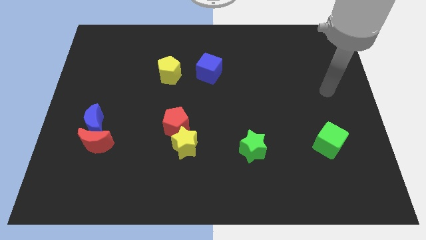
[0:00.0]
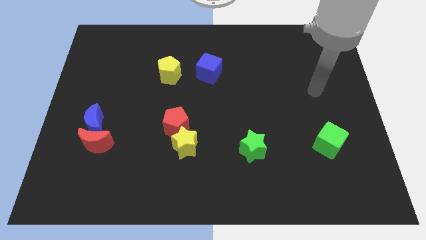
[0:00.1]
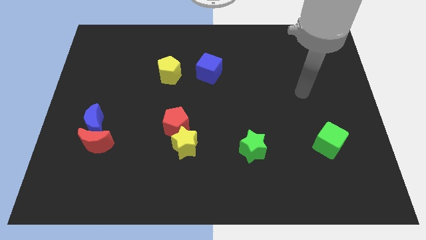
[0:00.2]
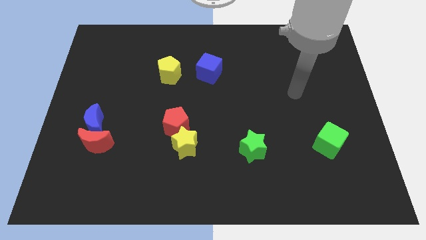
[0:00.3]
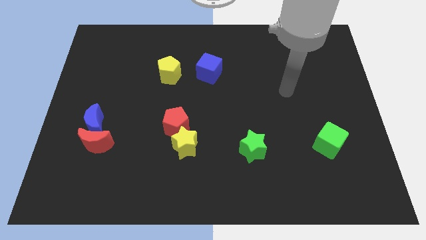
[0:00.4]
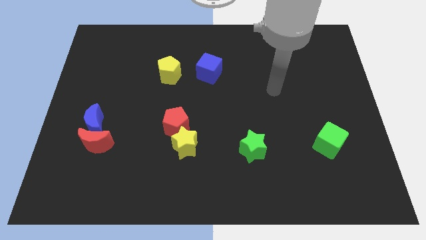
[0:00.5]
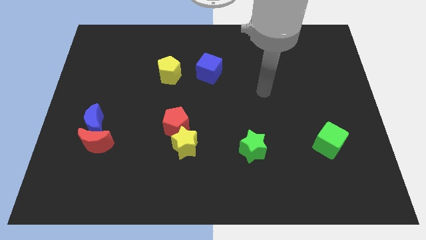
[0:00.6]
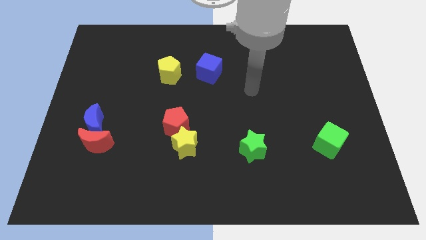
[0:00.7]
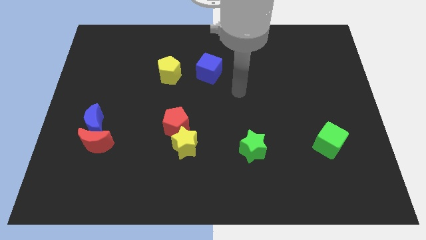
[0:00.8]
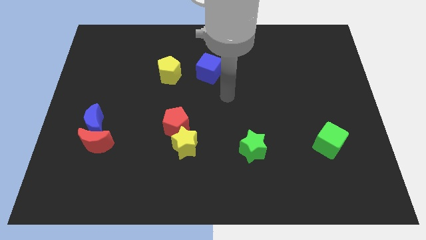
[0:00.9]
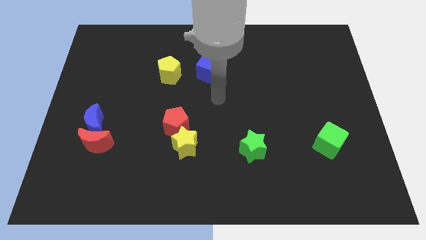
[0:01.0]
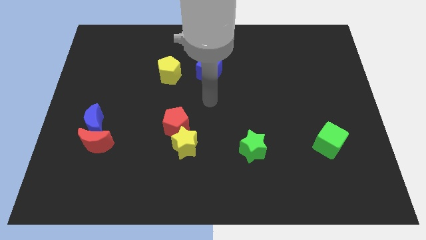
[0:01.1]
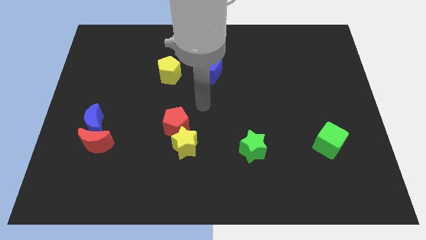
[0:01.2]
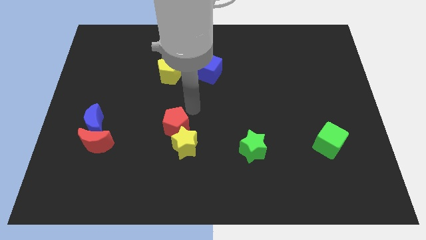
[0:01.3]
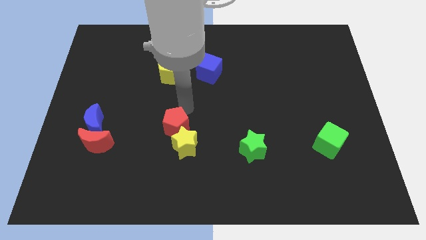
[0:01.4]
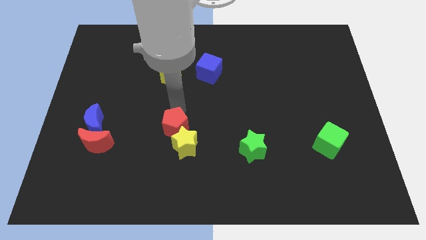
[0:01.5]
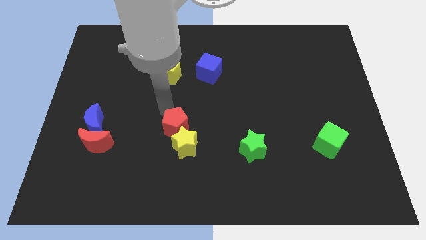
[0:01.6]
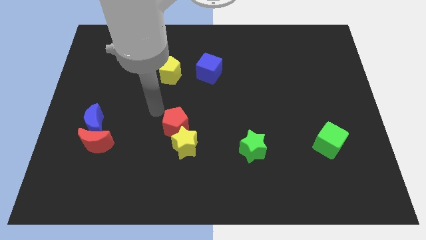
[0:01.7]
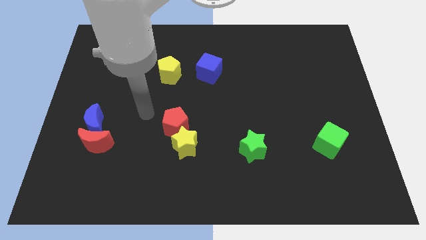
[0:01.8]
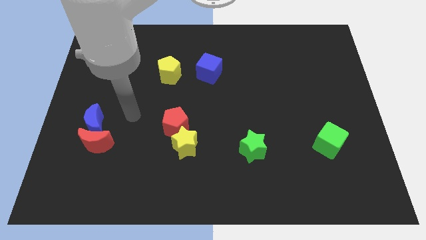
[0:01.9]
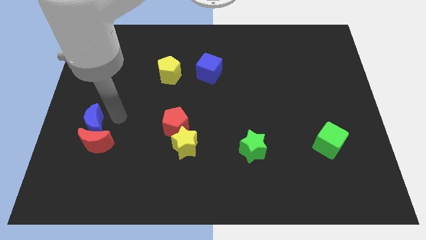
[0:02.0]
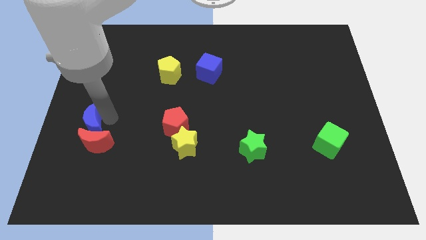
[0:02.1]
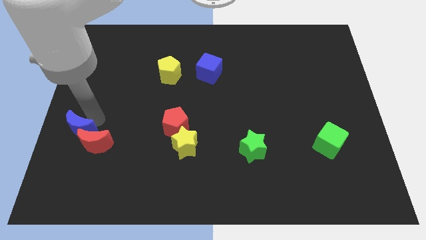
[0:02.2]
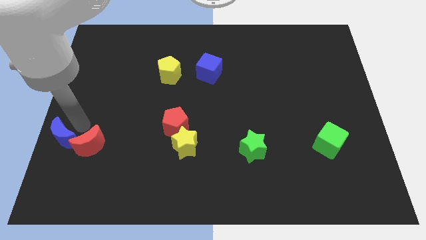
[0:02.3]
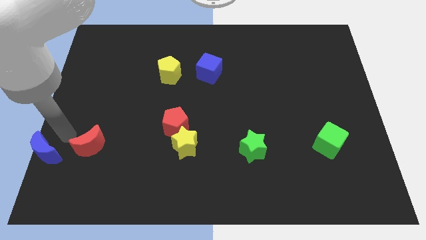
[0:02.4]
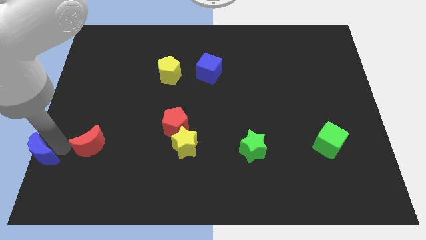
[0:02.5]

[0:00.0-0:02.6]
separate the red moon from the blue moon

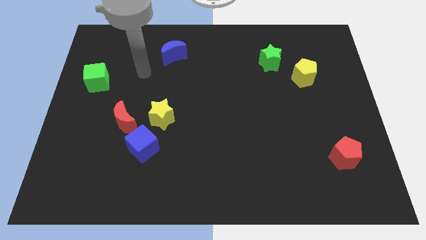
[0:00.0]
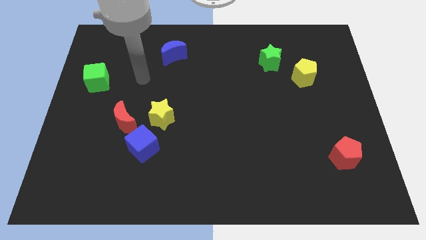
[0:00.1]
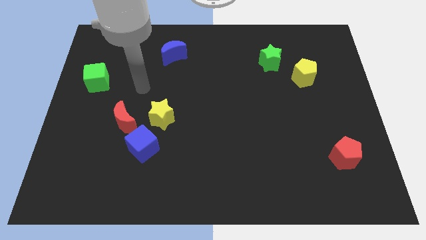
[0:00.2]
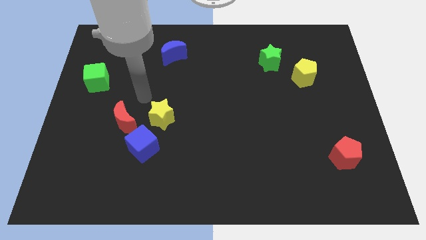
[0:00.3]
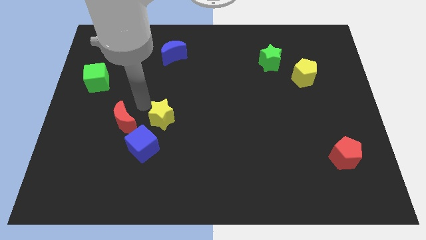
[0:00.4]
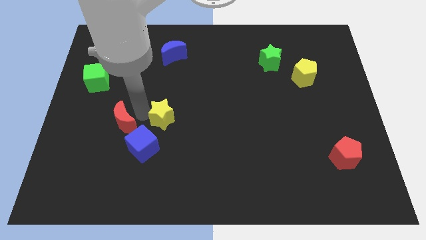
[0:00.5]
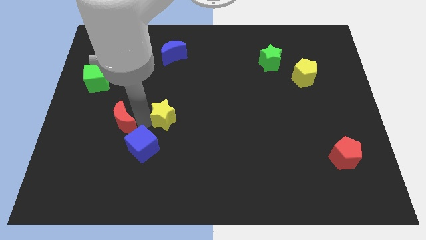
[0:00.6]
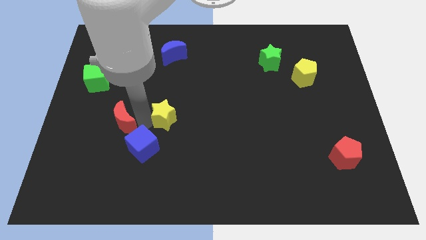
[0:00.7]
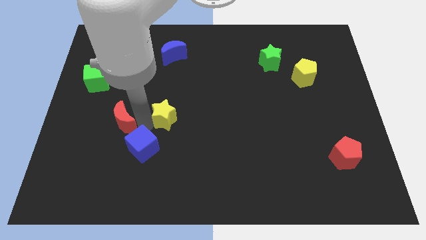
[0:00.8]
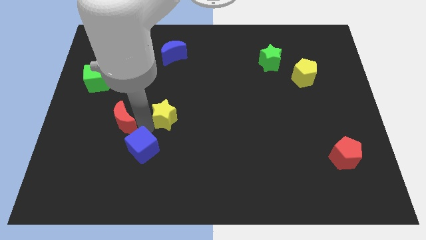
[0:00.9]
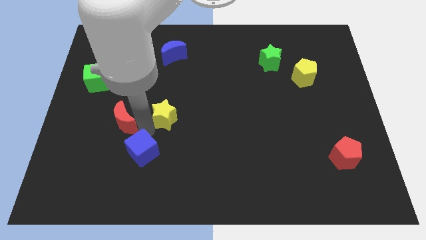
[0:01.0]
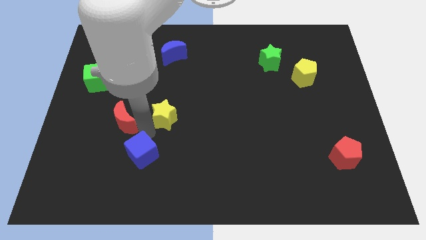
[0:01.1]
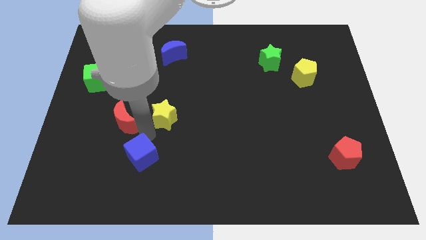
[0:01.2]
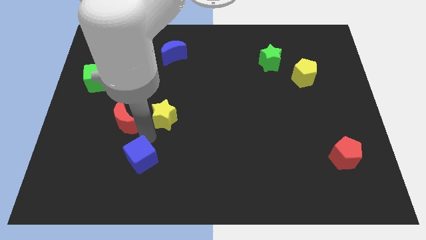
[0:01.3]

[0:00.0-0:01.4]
separate the blue cube from the red moon and yellow star

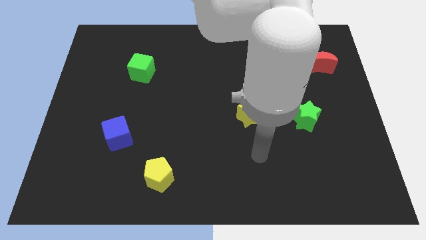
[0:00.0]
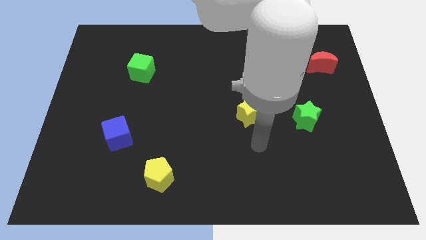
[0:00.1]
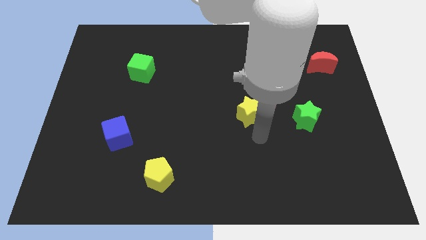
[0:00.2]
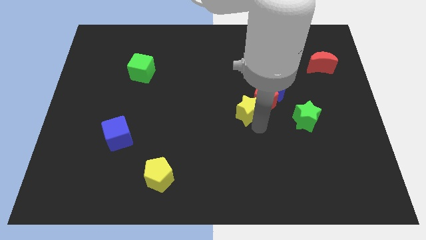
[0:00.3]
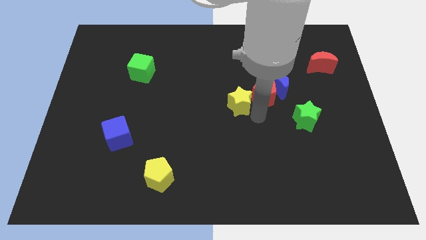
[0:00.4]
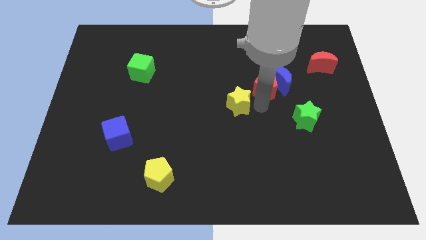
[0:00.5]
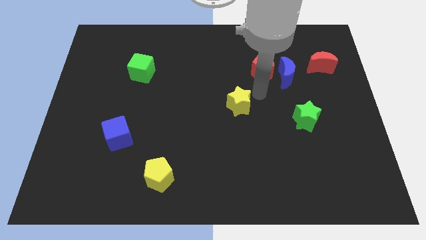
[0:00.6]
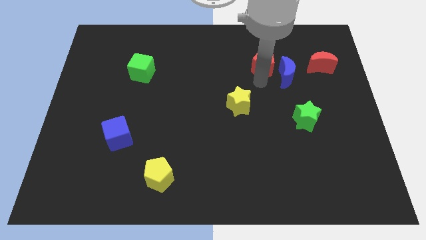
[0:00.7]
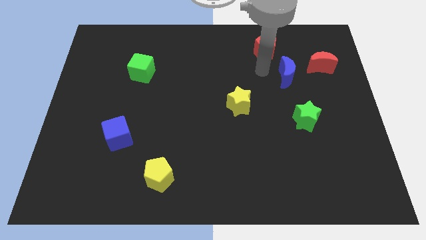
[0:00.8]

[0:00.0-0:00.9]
move the blue moon away from the red pentagon

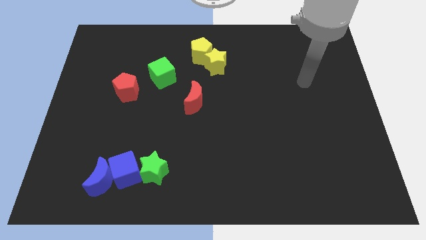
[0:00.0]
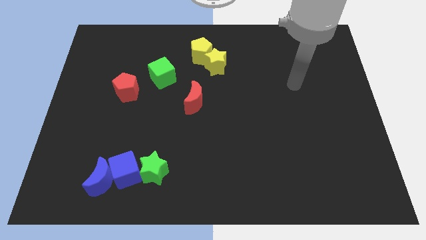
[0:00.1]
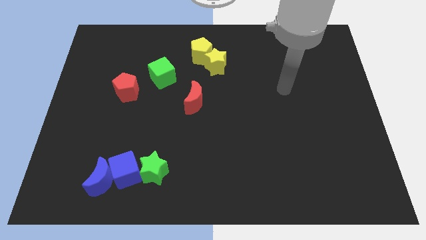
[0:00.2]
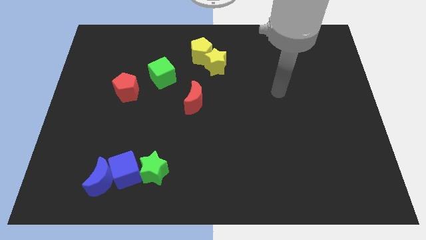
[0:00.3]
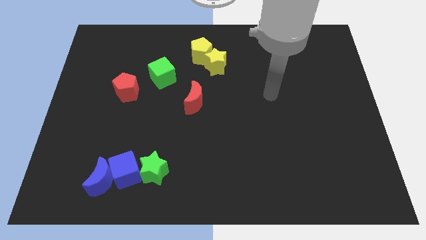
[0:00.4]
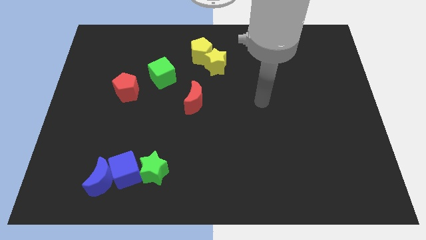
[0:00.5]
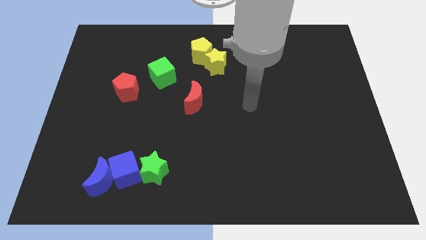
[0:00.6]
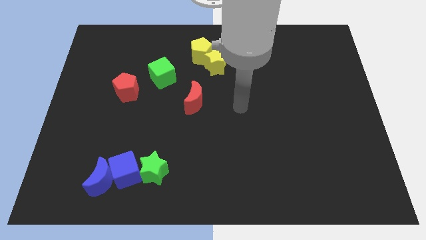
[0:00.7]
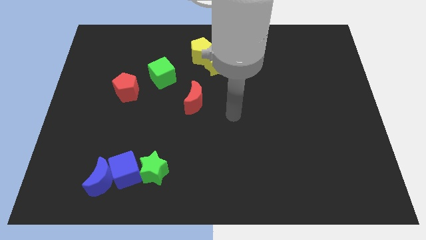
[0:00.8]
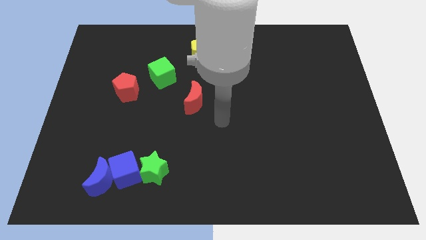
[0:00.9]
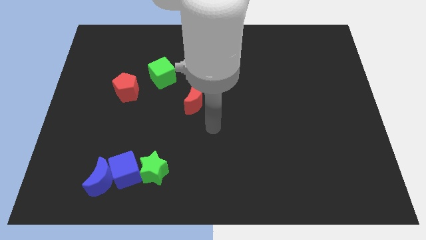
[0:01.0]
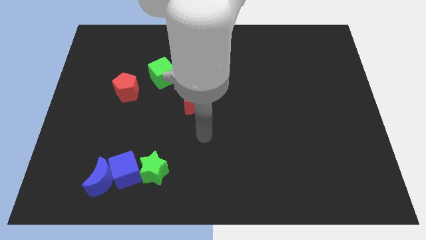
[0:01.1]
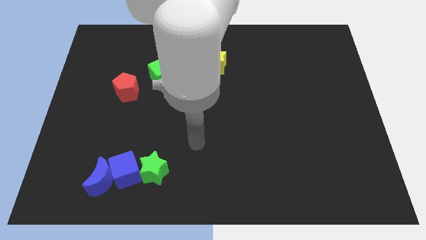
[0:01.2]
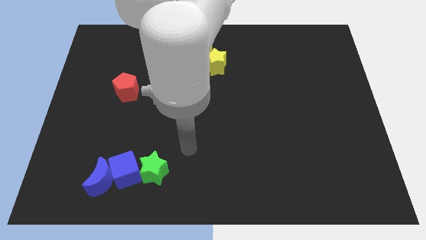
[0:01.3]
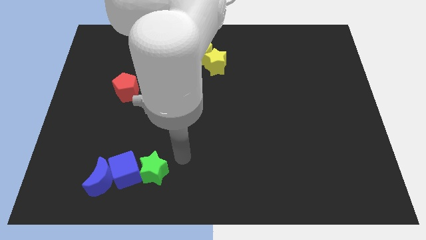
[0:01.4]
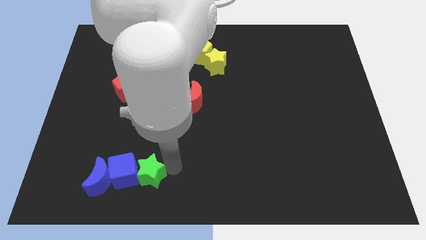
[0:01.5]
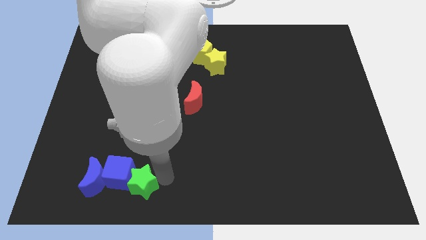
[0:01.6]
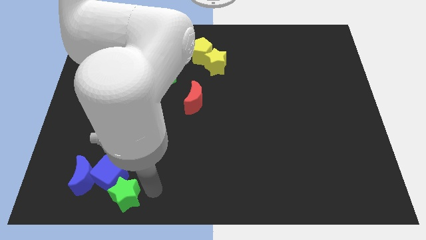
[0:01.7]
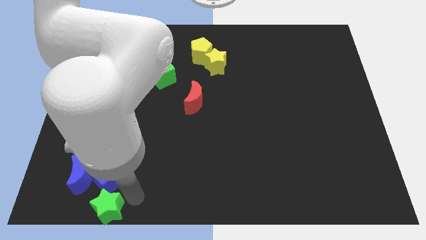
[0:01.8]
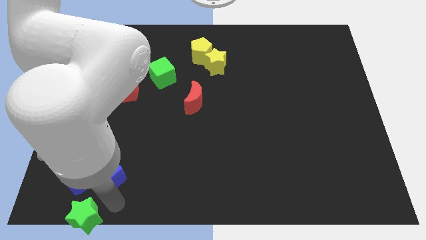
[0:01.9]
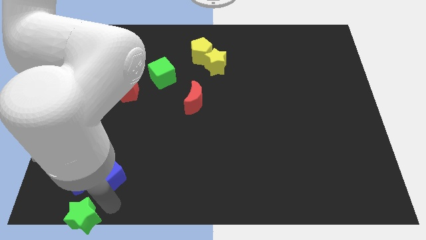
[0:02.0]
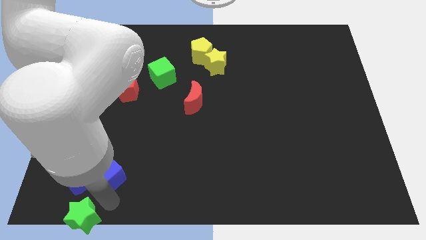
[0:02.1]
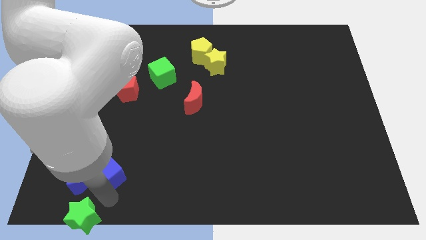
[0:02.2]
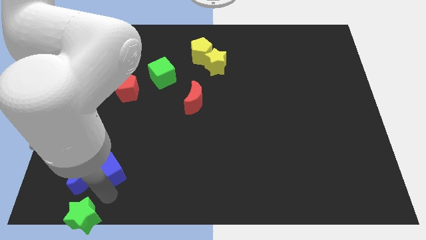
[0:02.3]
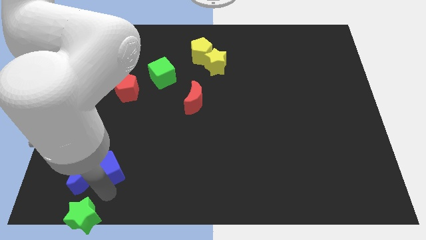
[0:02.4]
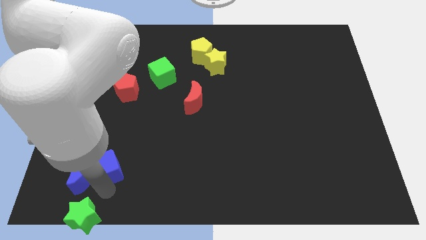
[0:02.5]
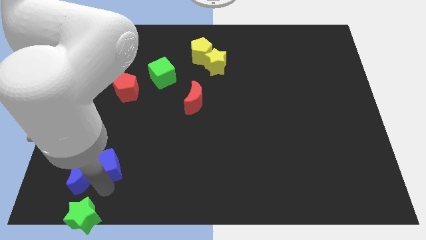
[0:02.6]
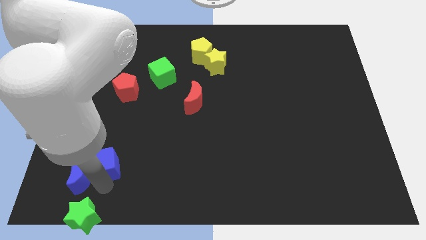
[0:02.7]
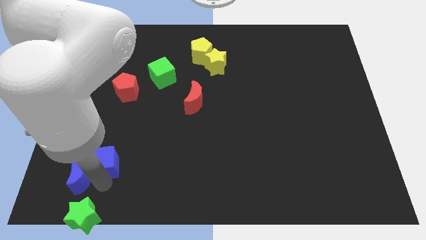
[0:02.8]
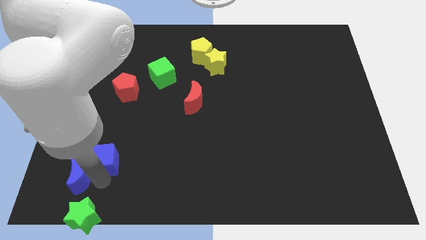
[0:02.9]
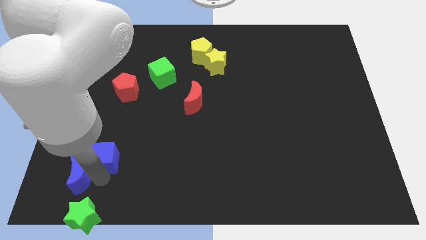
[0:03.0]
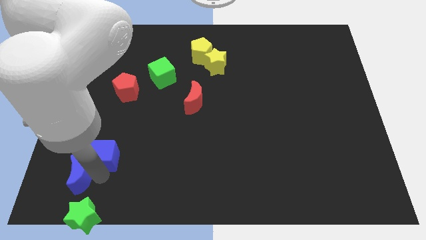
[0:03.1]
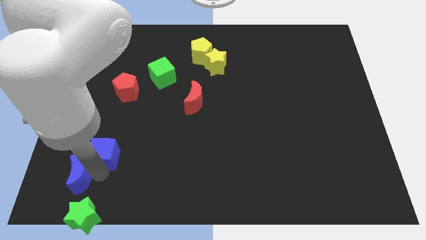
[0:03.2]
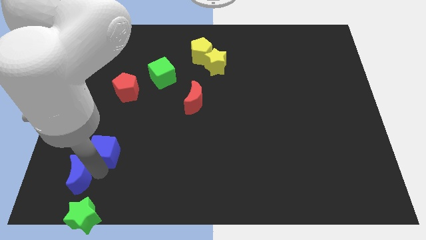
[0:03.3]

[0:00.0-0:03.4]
move the blue cube away from the blue moon and green star

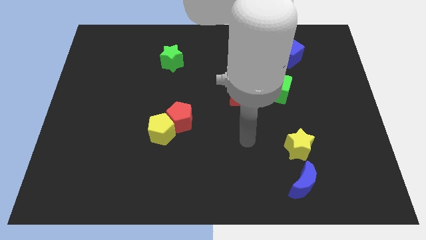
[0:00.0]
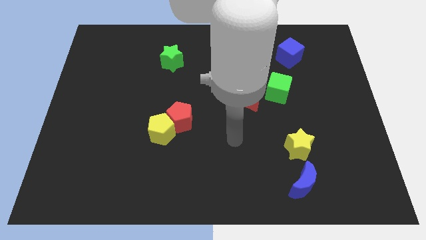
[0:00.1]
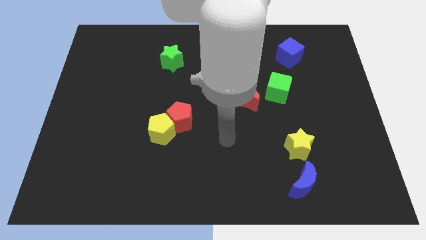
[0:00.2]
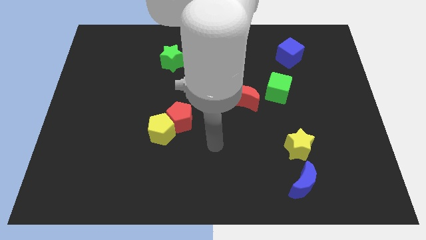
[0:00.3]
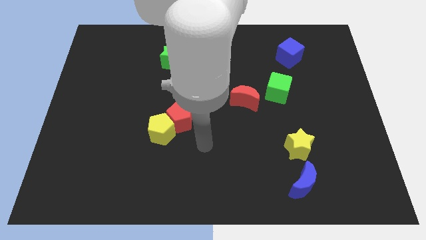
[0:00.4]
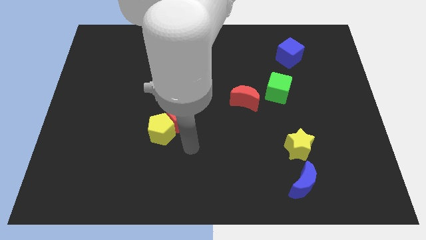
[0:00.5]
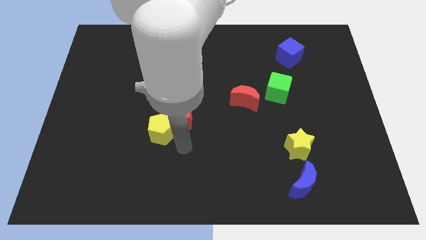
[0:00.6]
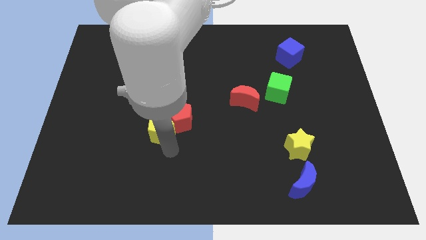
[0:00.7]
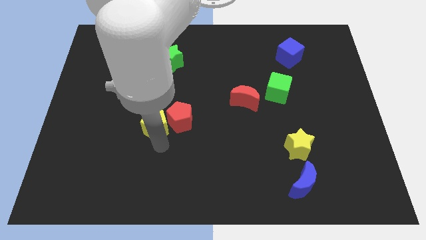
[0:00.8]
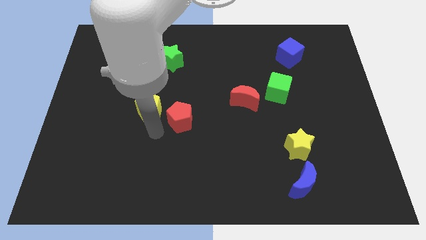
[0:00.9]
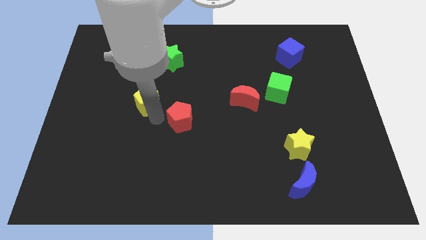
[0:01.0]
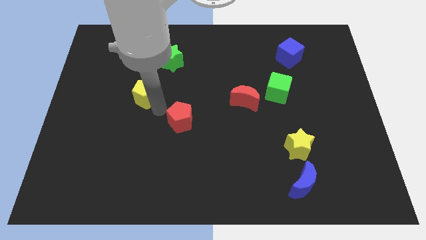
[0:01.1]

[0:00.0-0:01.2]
pull the red pentagon apart from the yellow pentagon
